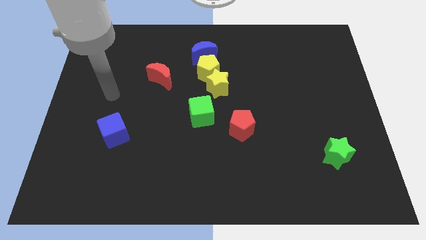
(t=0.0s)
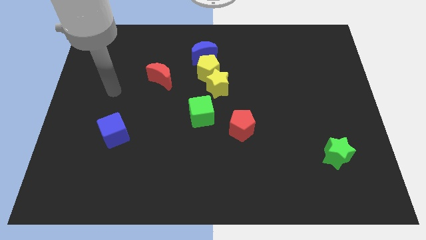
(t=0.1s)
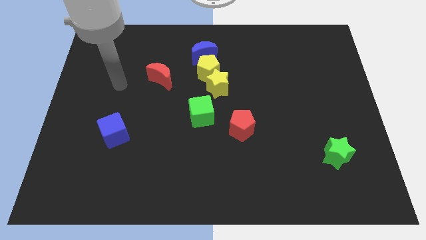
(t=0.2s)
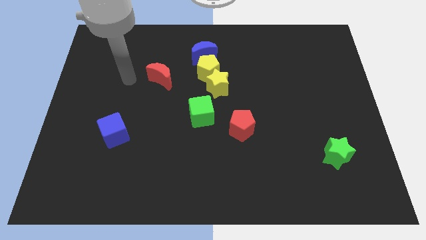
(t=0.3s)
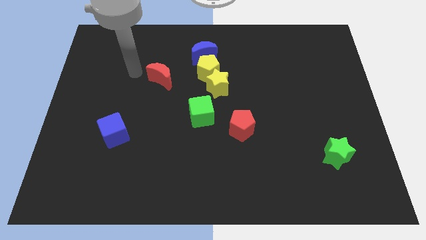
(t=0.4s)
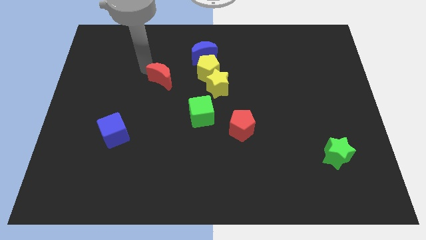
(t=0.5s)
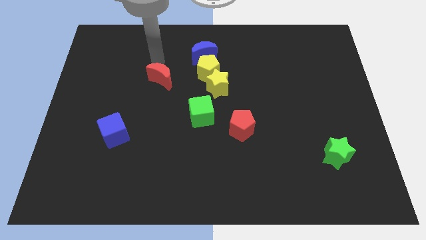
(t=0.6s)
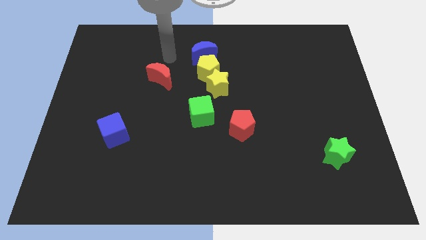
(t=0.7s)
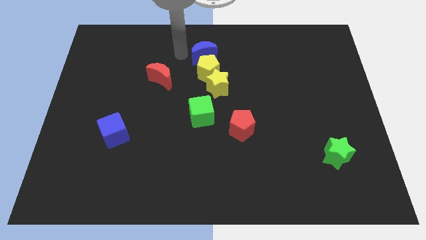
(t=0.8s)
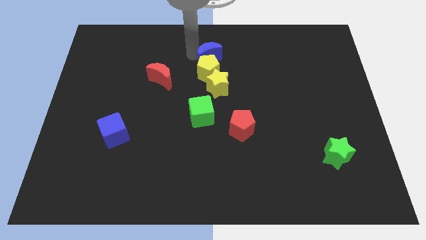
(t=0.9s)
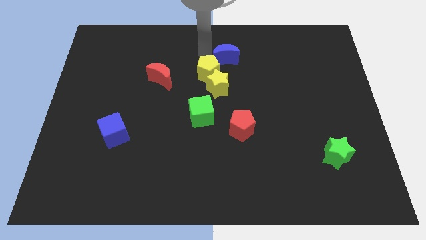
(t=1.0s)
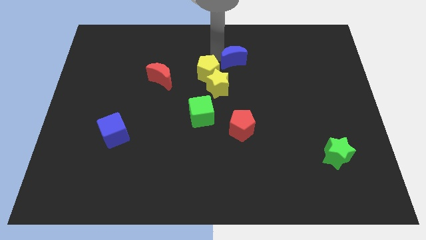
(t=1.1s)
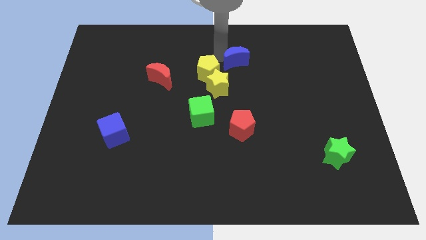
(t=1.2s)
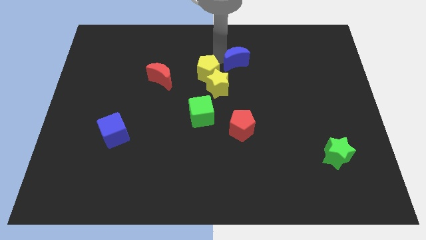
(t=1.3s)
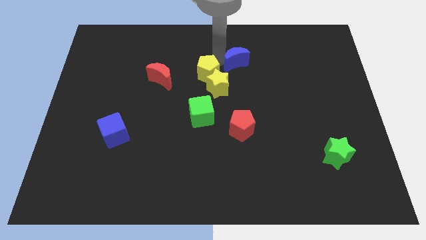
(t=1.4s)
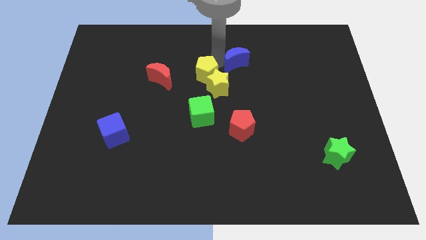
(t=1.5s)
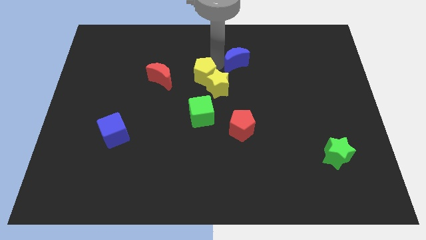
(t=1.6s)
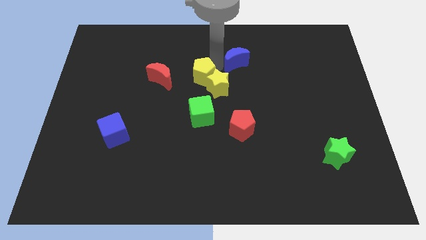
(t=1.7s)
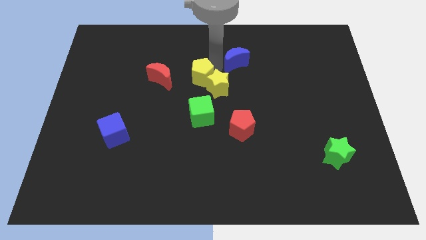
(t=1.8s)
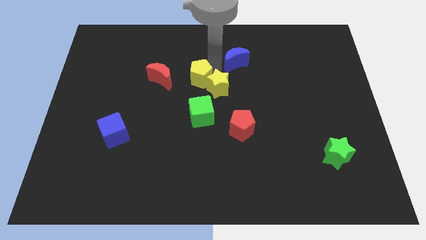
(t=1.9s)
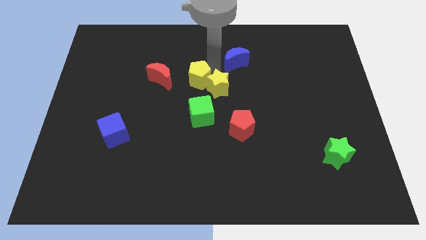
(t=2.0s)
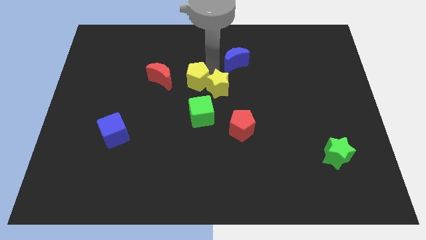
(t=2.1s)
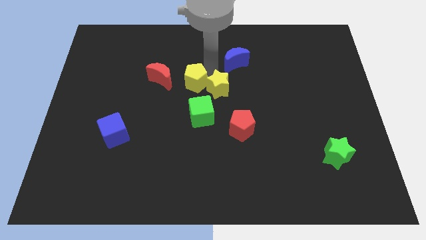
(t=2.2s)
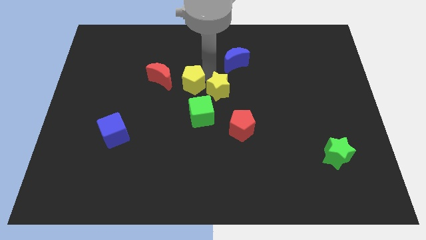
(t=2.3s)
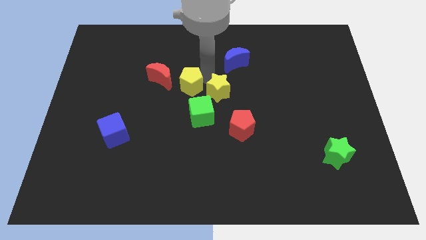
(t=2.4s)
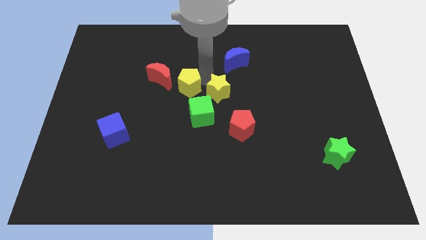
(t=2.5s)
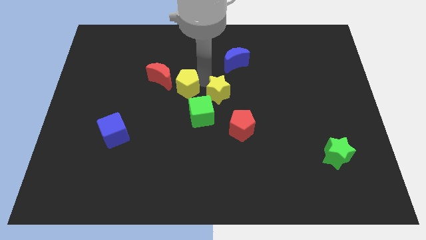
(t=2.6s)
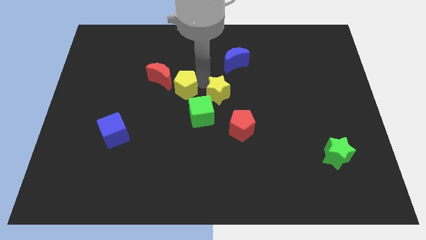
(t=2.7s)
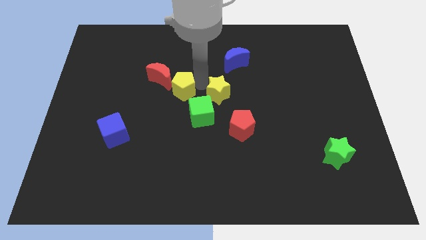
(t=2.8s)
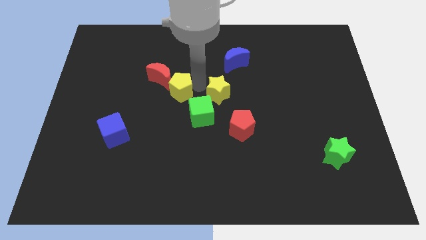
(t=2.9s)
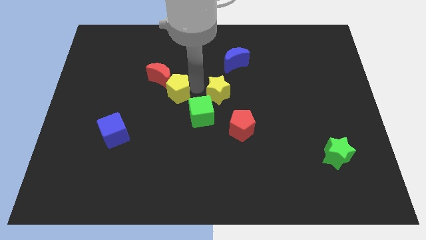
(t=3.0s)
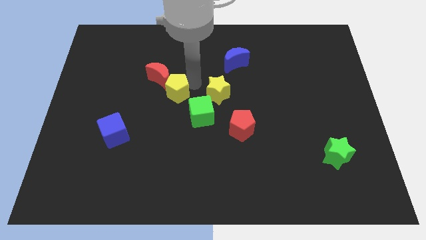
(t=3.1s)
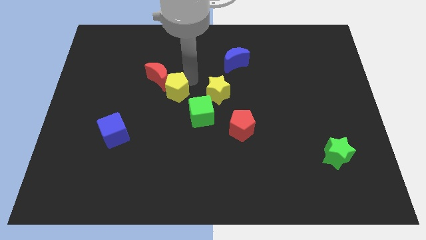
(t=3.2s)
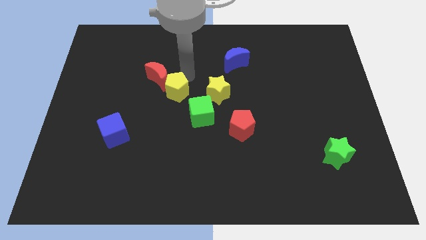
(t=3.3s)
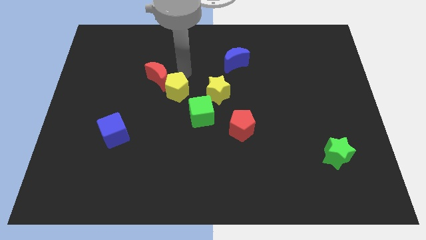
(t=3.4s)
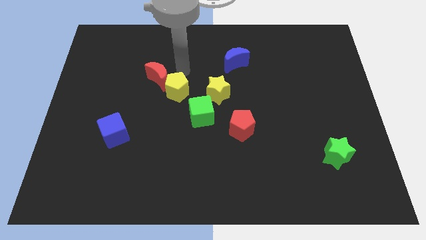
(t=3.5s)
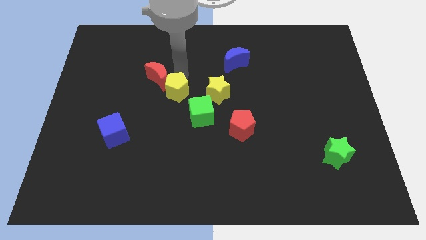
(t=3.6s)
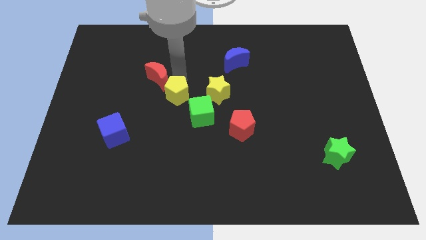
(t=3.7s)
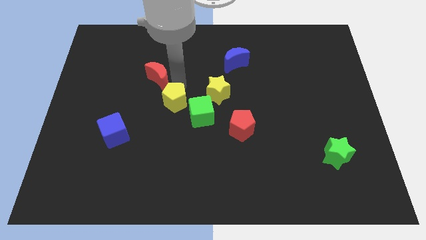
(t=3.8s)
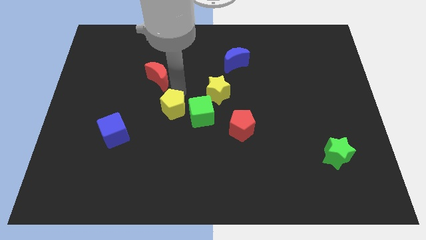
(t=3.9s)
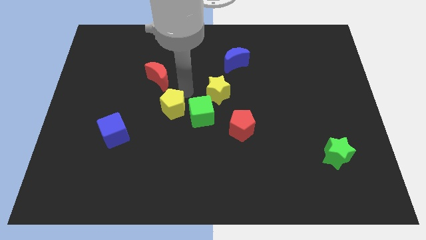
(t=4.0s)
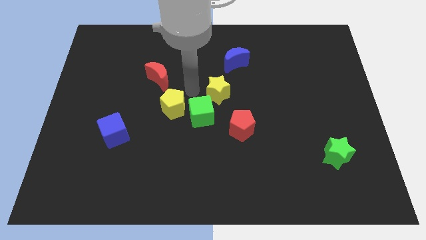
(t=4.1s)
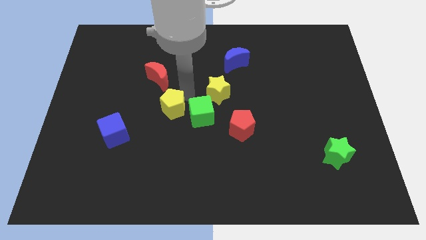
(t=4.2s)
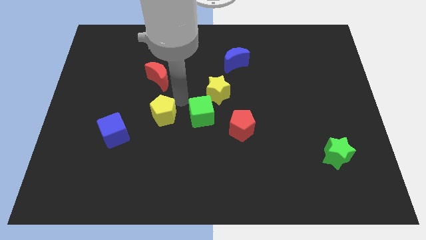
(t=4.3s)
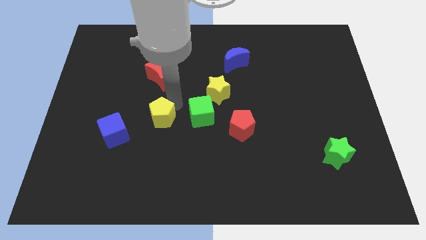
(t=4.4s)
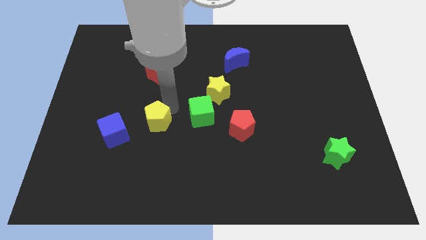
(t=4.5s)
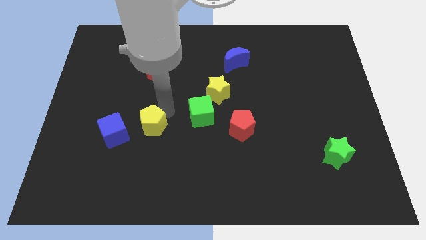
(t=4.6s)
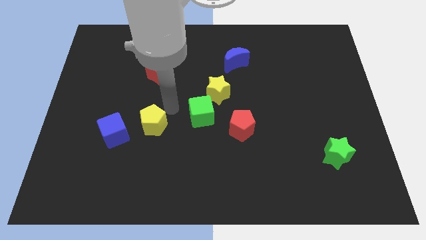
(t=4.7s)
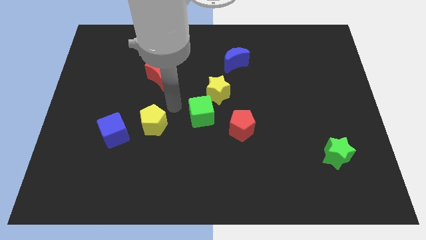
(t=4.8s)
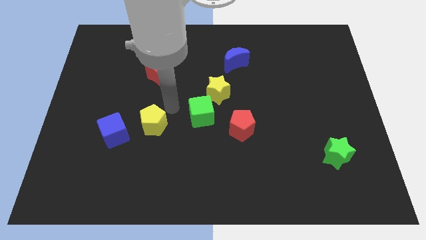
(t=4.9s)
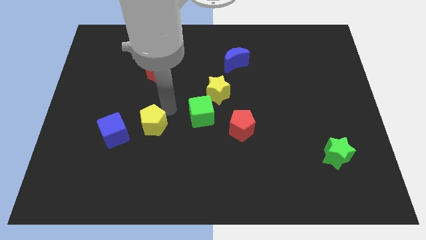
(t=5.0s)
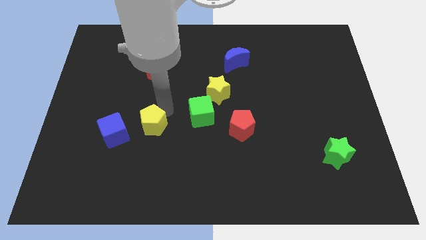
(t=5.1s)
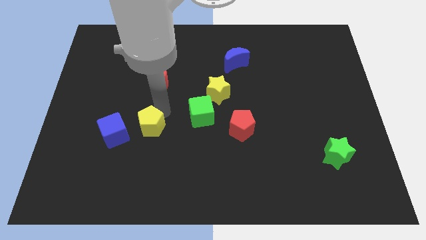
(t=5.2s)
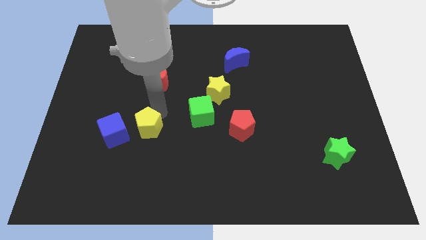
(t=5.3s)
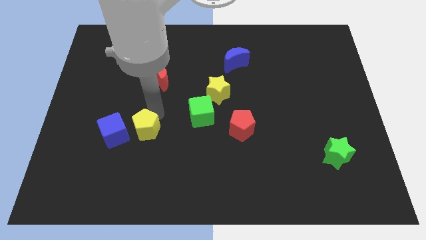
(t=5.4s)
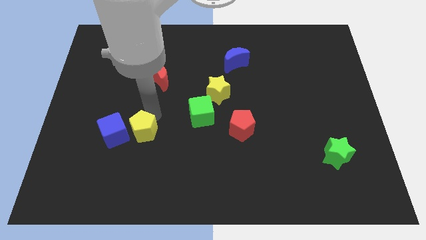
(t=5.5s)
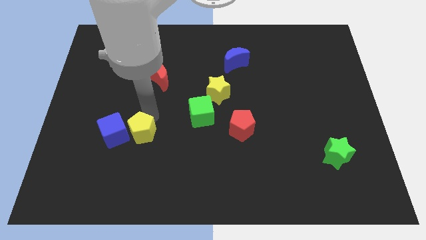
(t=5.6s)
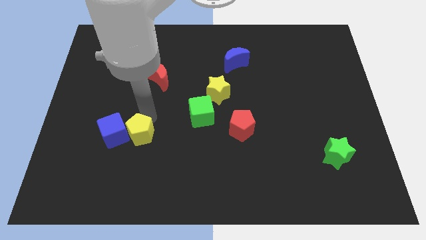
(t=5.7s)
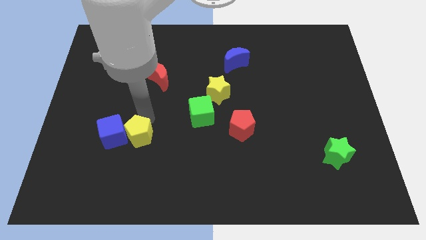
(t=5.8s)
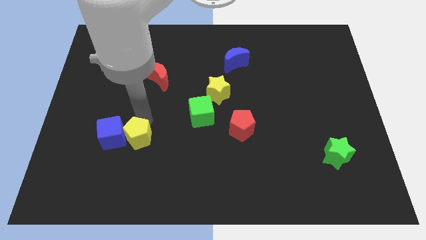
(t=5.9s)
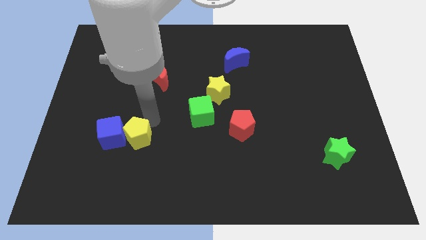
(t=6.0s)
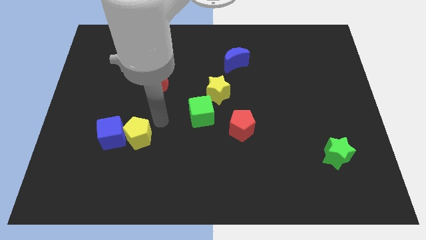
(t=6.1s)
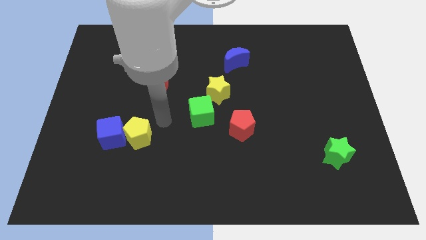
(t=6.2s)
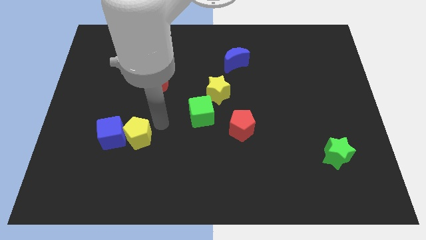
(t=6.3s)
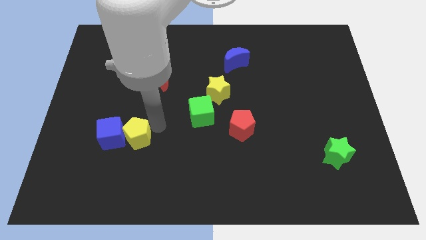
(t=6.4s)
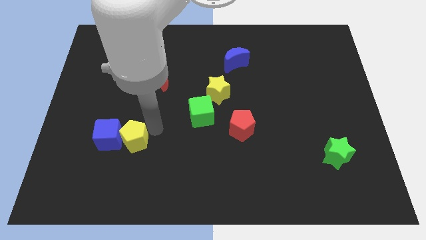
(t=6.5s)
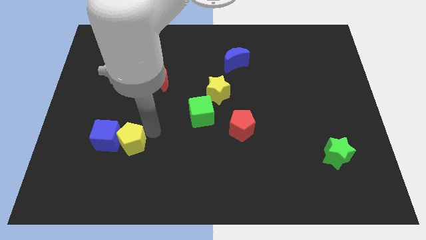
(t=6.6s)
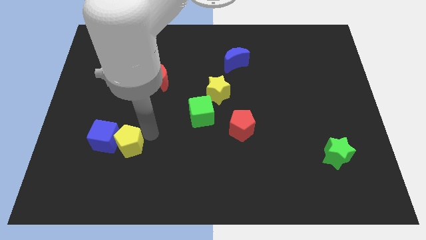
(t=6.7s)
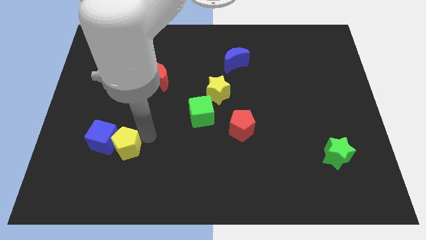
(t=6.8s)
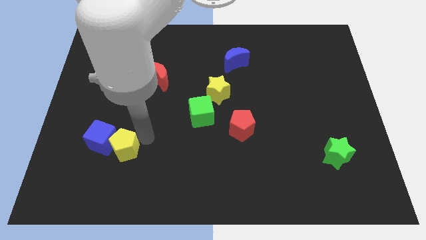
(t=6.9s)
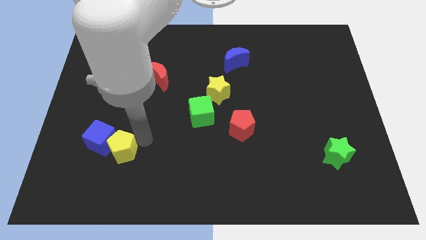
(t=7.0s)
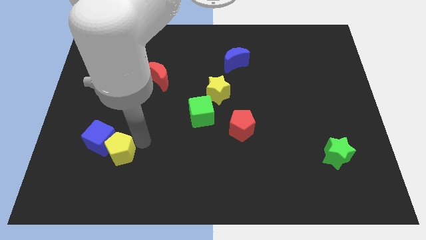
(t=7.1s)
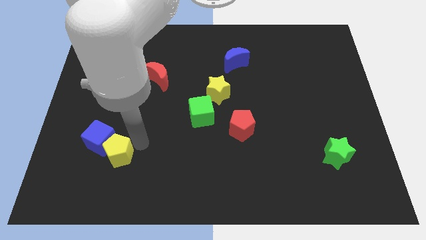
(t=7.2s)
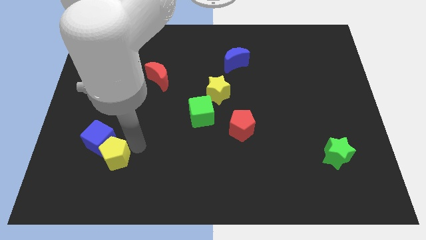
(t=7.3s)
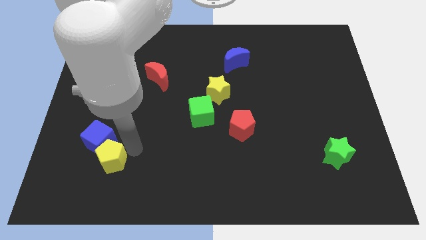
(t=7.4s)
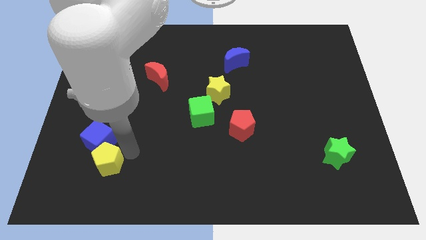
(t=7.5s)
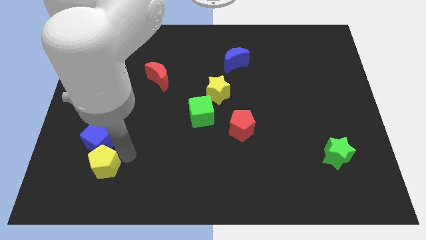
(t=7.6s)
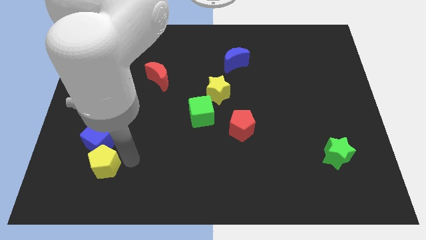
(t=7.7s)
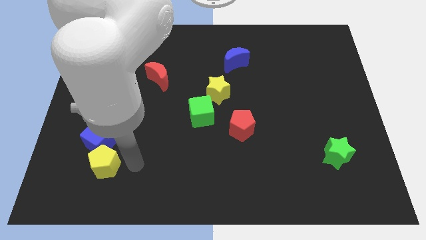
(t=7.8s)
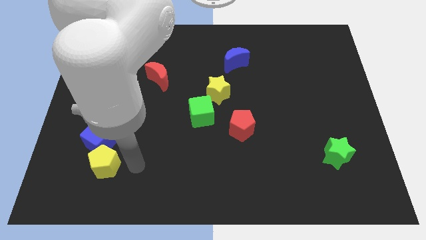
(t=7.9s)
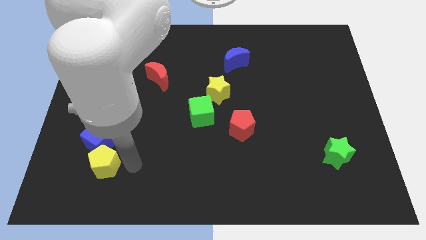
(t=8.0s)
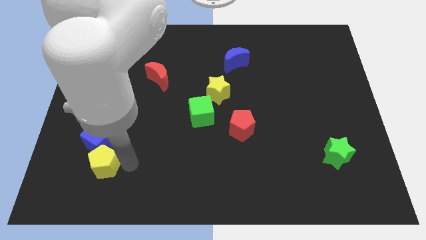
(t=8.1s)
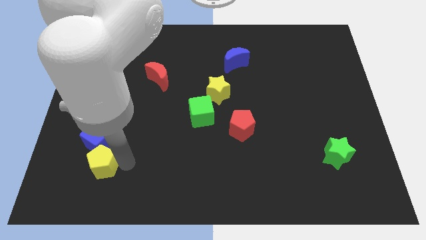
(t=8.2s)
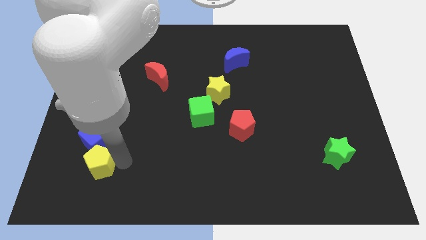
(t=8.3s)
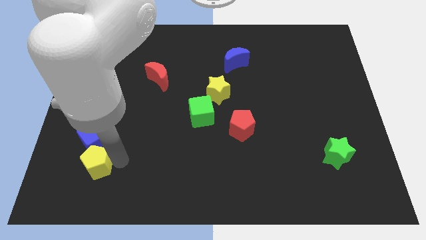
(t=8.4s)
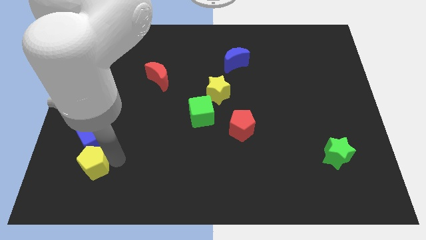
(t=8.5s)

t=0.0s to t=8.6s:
move the yellow pentagon diagonally down and to the left of the blue cube
